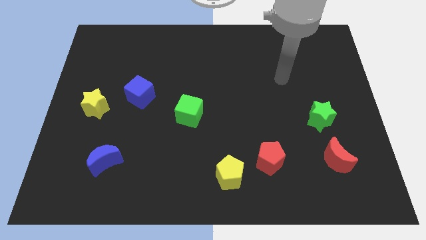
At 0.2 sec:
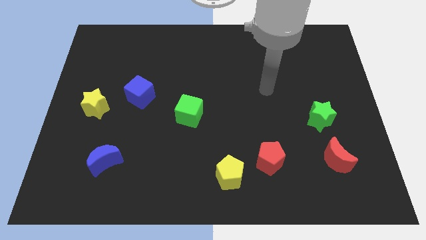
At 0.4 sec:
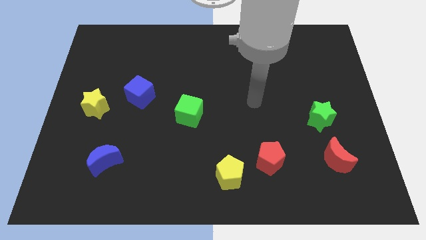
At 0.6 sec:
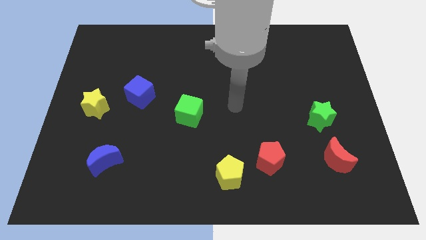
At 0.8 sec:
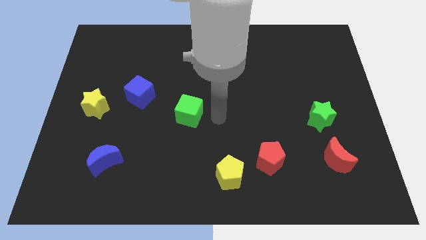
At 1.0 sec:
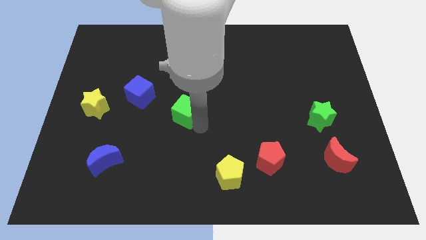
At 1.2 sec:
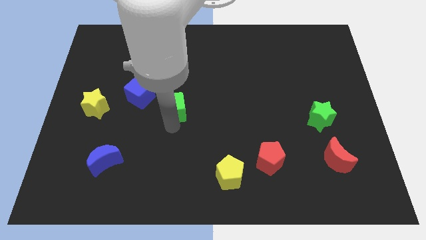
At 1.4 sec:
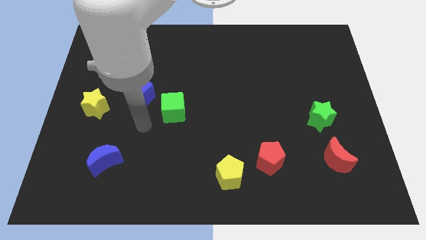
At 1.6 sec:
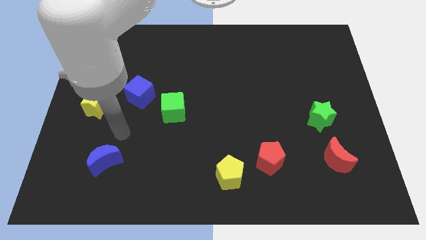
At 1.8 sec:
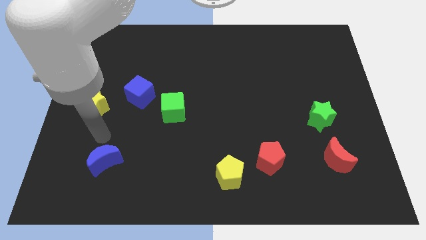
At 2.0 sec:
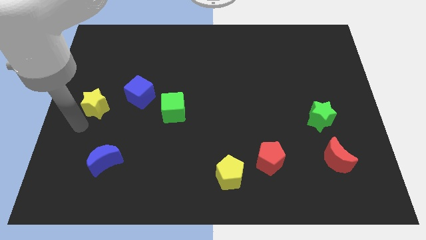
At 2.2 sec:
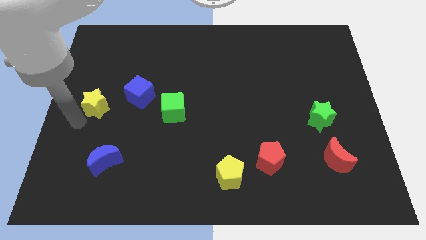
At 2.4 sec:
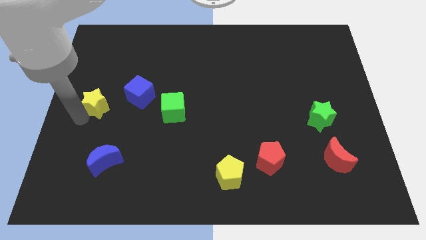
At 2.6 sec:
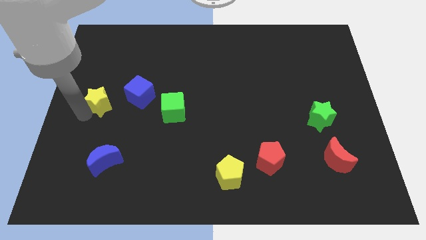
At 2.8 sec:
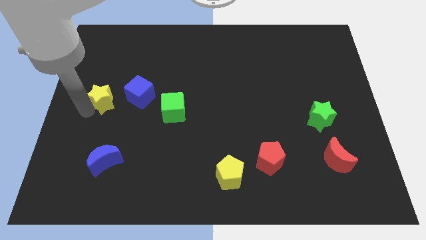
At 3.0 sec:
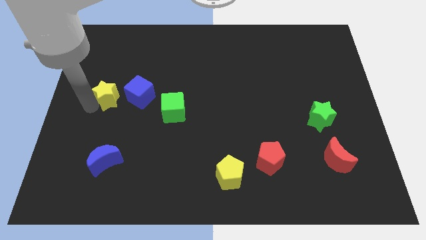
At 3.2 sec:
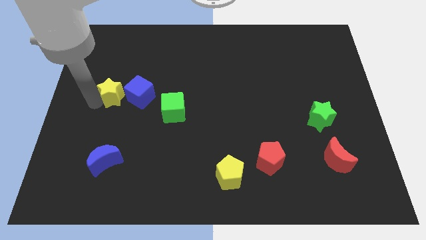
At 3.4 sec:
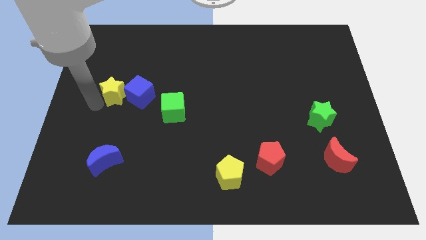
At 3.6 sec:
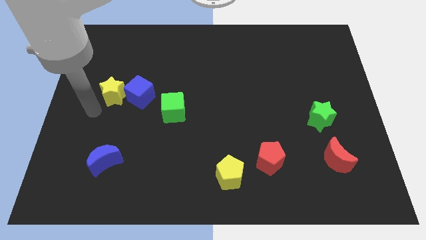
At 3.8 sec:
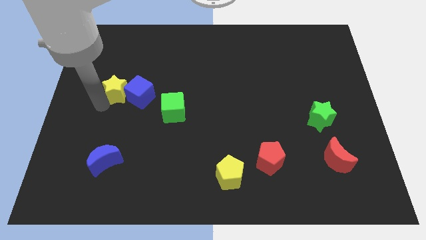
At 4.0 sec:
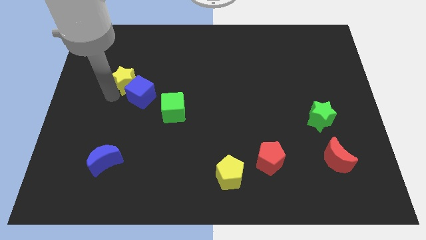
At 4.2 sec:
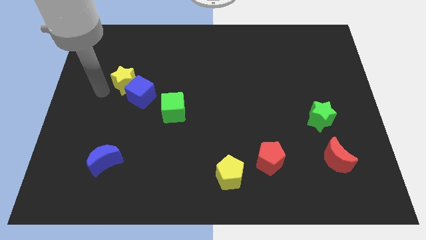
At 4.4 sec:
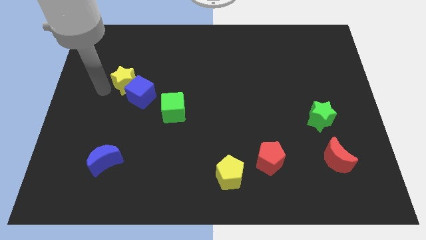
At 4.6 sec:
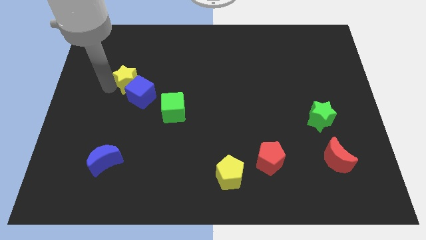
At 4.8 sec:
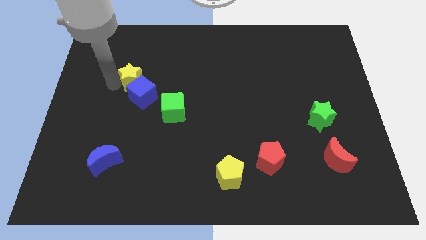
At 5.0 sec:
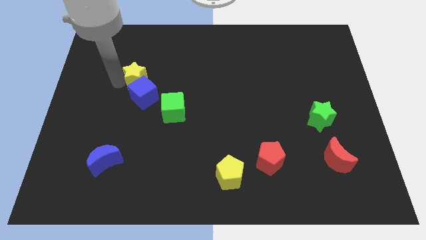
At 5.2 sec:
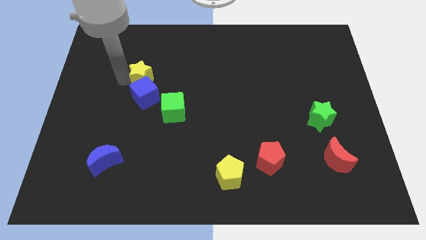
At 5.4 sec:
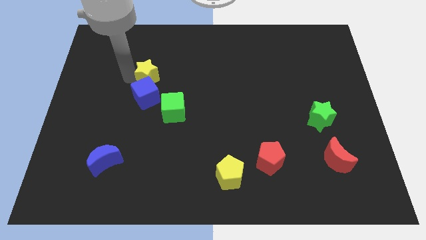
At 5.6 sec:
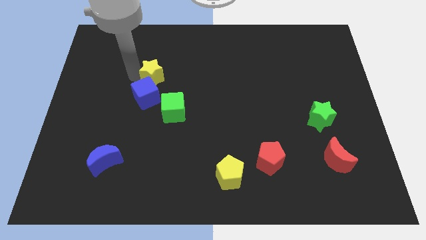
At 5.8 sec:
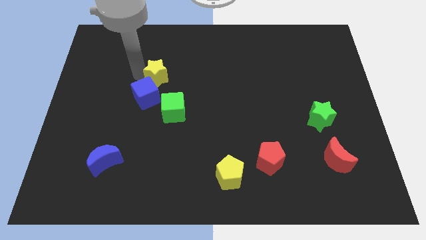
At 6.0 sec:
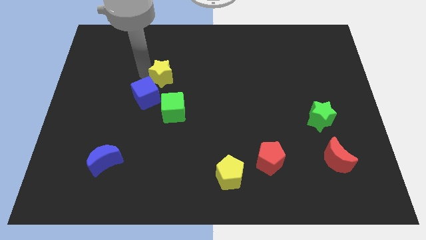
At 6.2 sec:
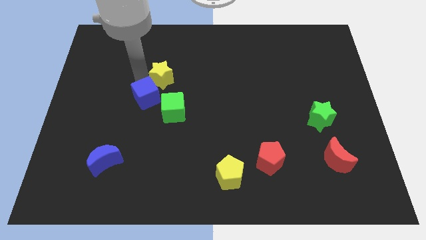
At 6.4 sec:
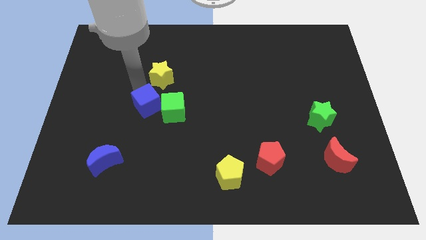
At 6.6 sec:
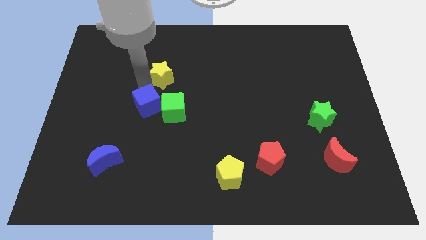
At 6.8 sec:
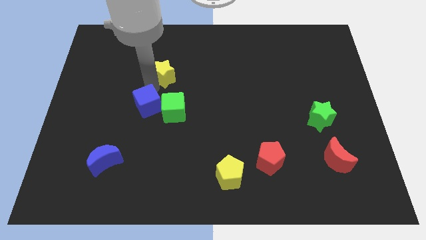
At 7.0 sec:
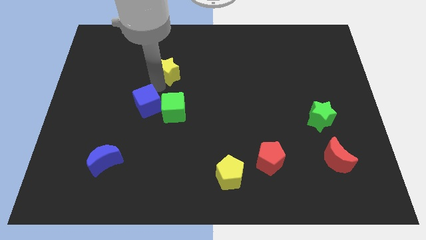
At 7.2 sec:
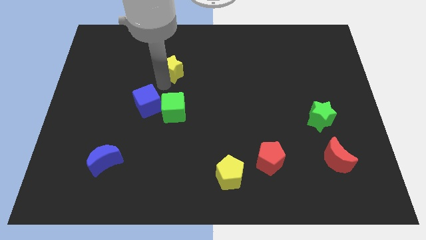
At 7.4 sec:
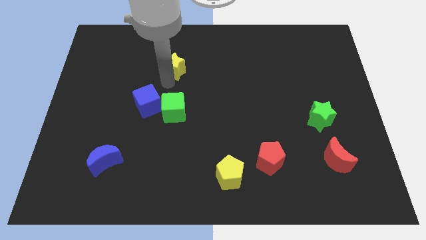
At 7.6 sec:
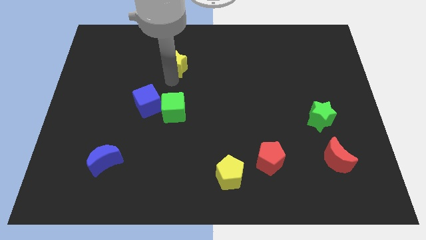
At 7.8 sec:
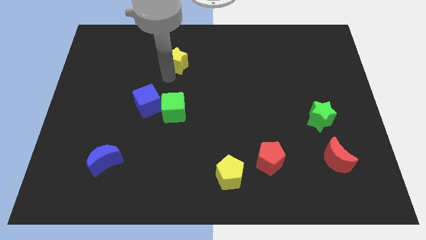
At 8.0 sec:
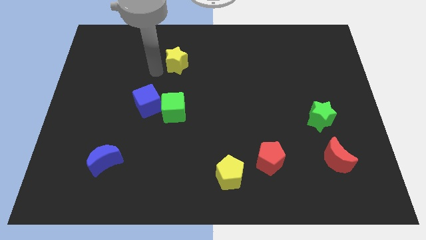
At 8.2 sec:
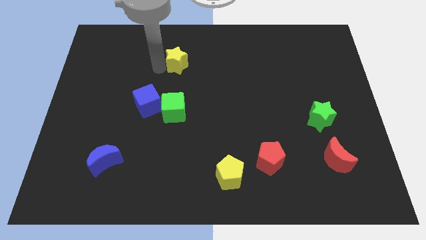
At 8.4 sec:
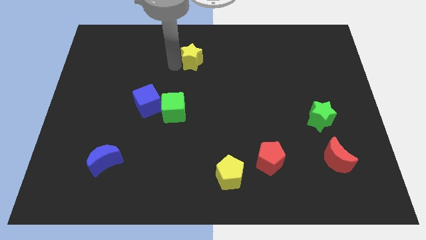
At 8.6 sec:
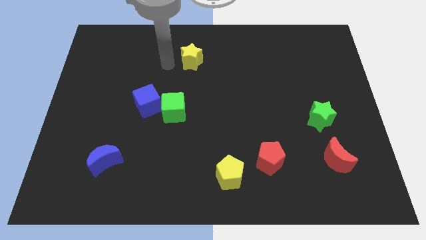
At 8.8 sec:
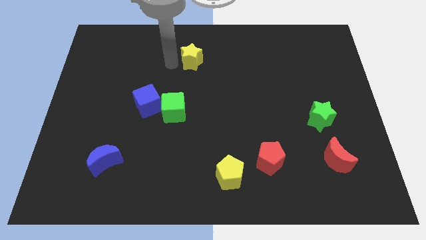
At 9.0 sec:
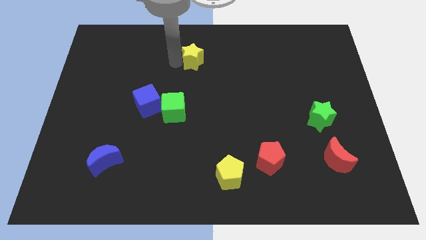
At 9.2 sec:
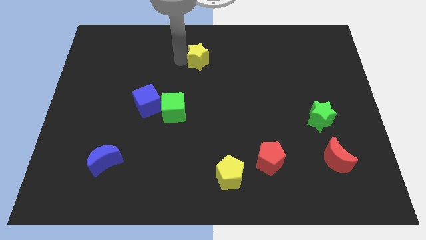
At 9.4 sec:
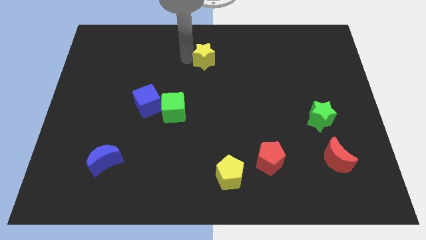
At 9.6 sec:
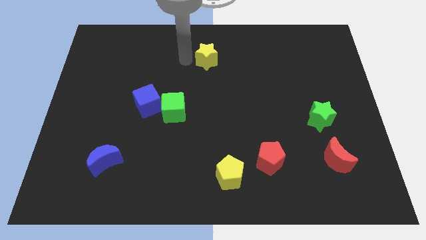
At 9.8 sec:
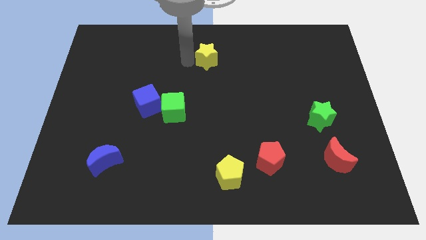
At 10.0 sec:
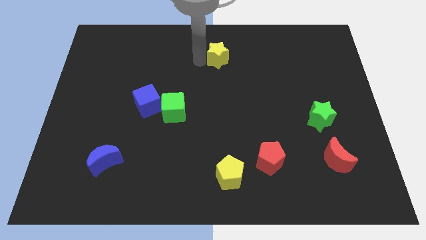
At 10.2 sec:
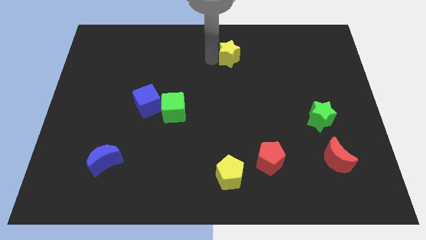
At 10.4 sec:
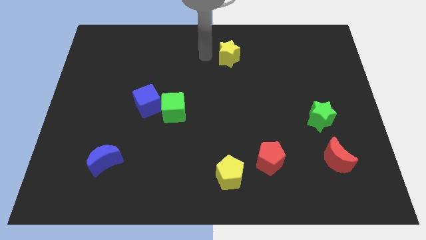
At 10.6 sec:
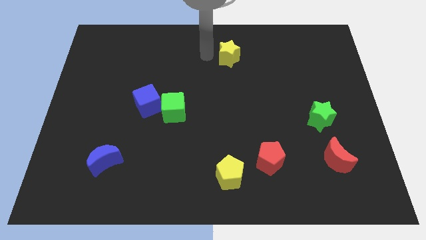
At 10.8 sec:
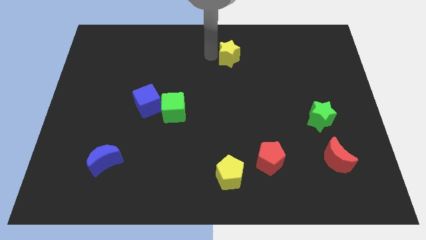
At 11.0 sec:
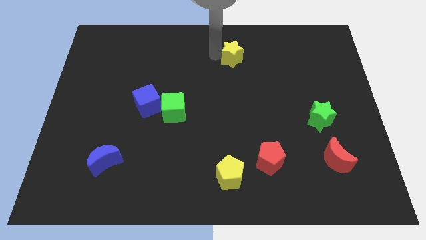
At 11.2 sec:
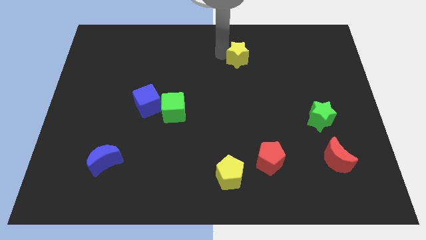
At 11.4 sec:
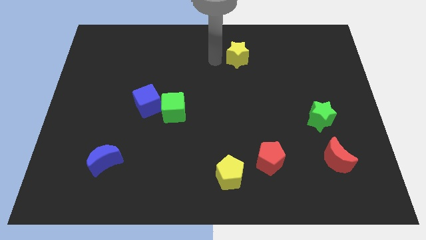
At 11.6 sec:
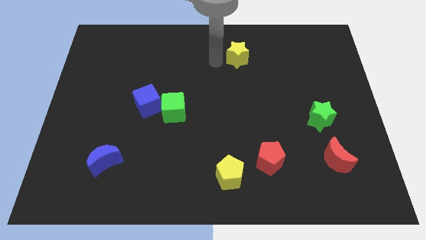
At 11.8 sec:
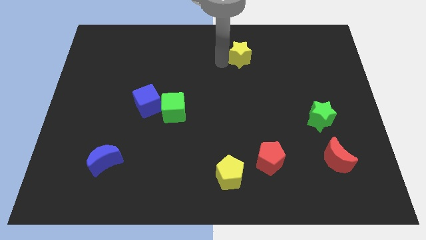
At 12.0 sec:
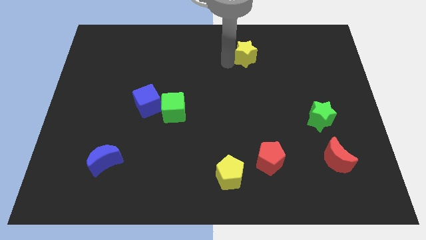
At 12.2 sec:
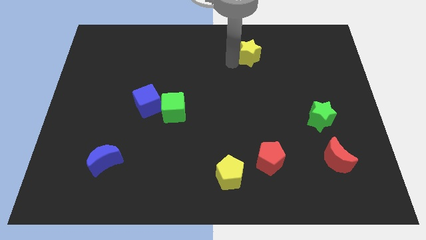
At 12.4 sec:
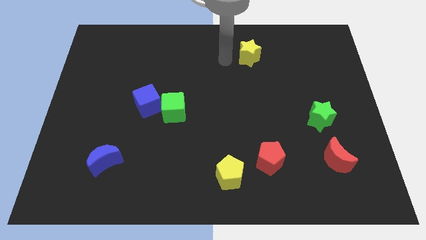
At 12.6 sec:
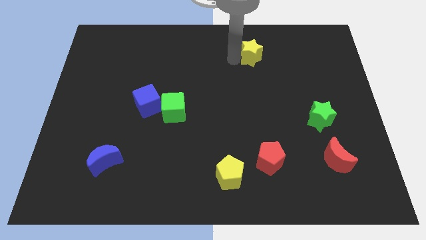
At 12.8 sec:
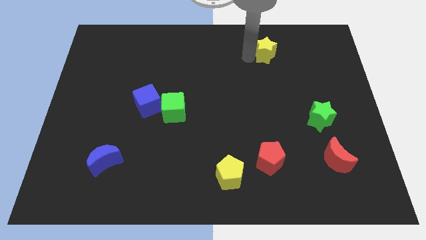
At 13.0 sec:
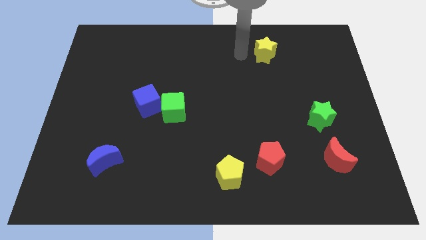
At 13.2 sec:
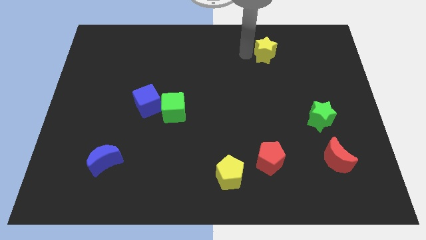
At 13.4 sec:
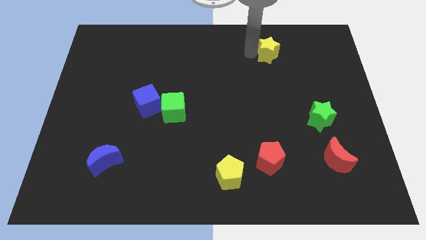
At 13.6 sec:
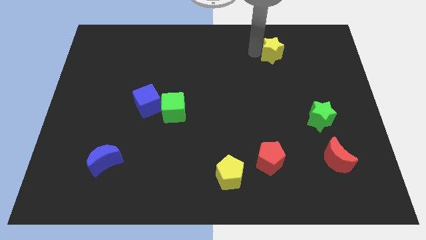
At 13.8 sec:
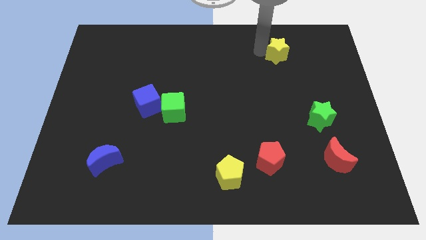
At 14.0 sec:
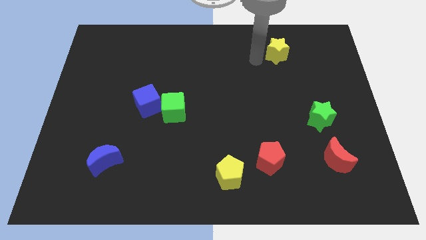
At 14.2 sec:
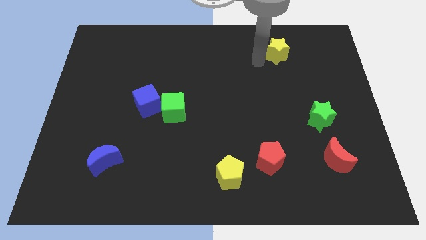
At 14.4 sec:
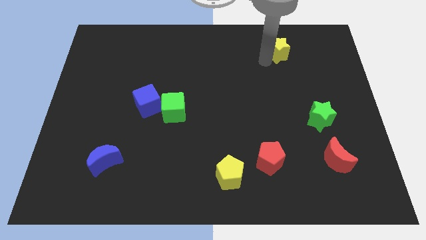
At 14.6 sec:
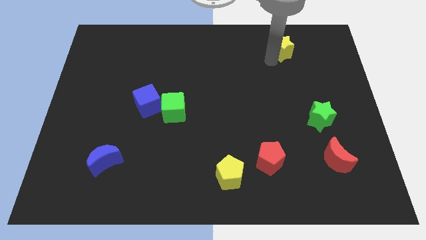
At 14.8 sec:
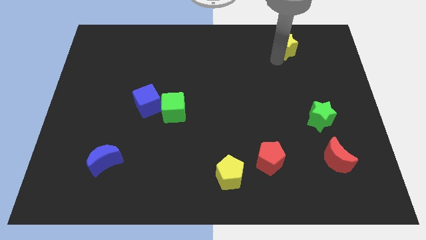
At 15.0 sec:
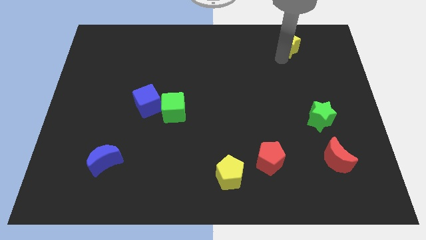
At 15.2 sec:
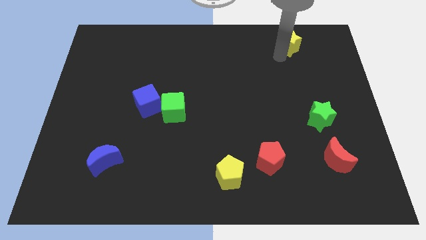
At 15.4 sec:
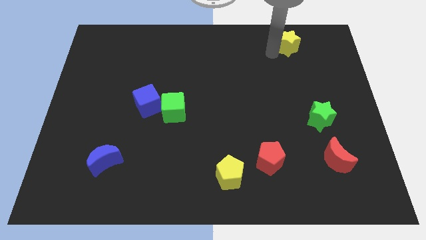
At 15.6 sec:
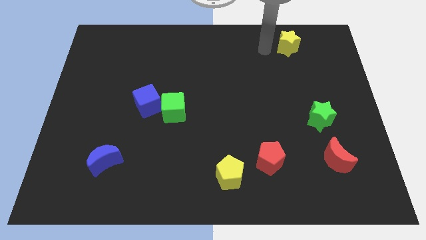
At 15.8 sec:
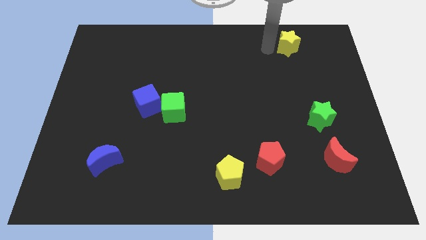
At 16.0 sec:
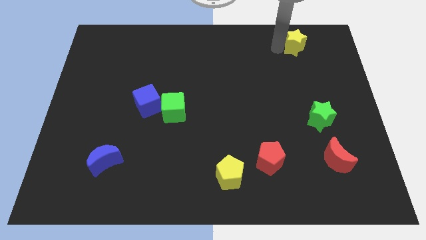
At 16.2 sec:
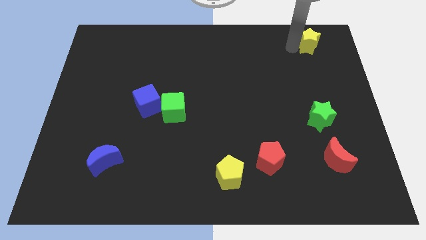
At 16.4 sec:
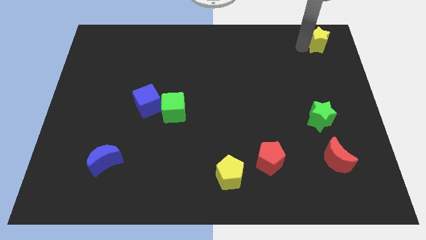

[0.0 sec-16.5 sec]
slide the yellow star to the top right
